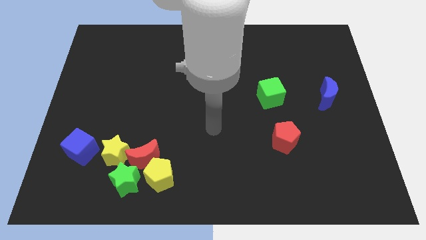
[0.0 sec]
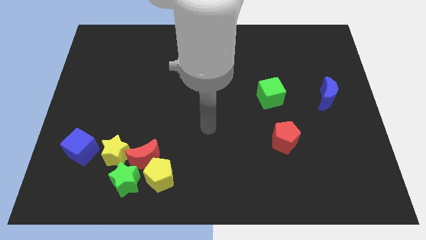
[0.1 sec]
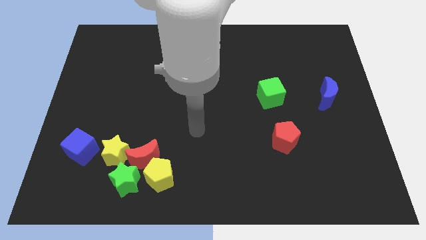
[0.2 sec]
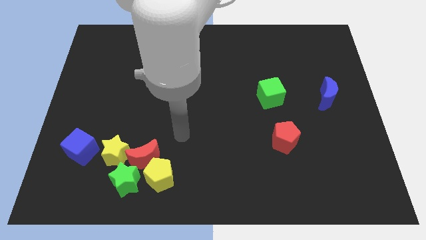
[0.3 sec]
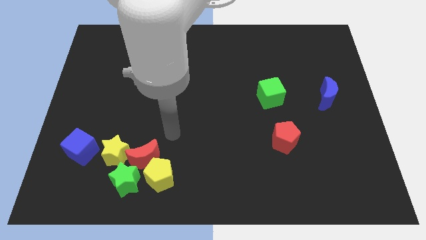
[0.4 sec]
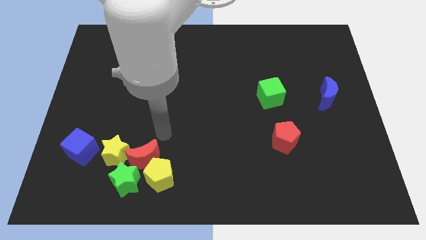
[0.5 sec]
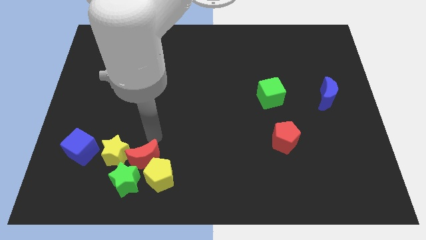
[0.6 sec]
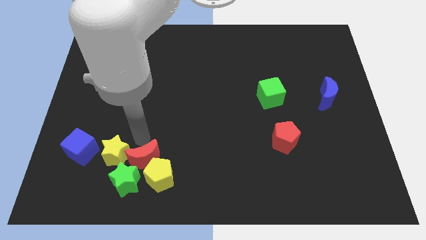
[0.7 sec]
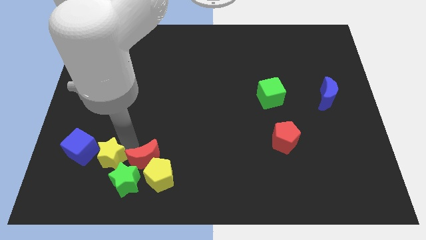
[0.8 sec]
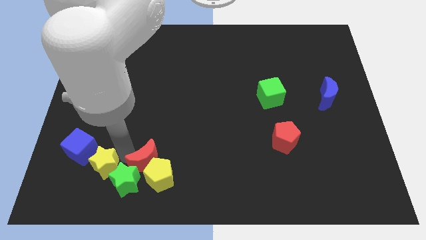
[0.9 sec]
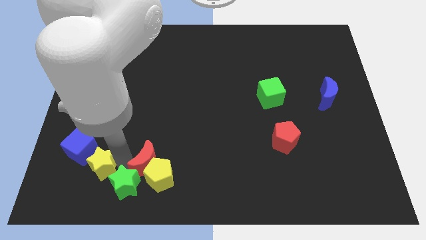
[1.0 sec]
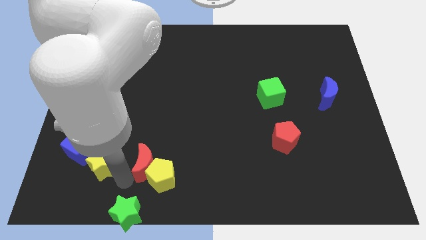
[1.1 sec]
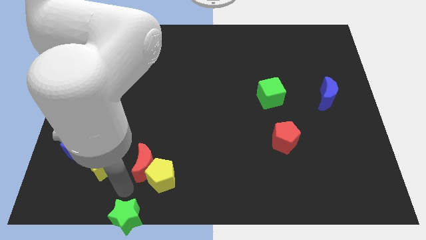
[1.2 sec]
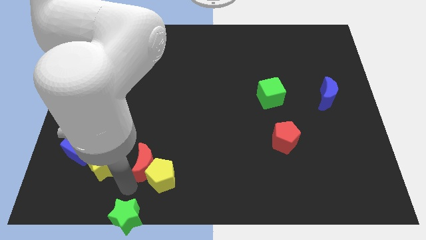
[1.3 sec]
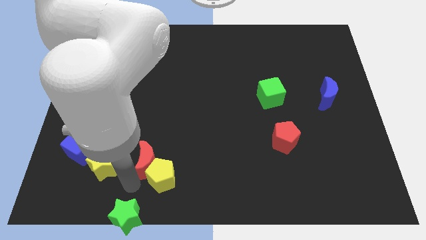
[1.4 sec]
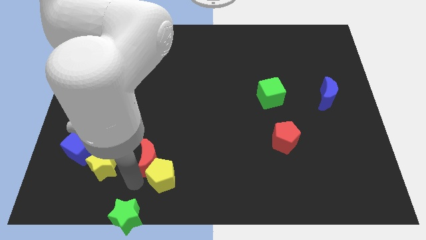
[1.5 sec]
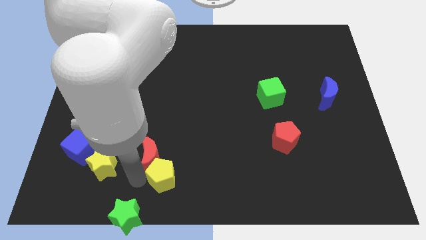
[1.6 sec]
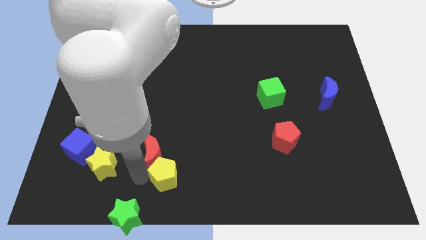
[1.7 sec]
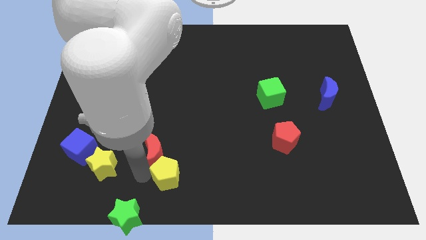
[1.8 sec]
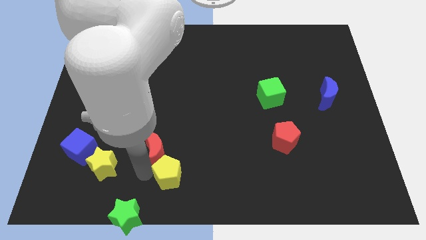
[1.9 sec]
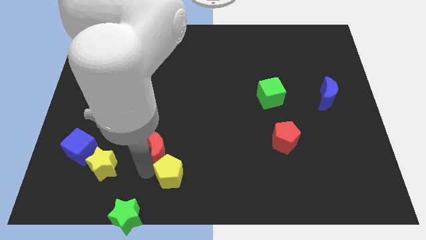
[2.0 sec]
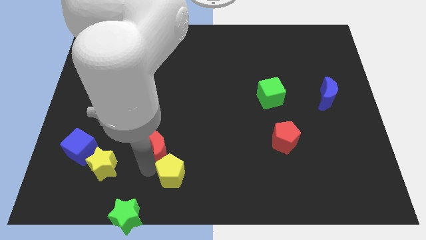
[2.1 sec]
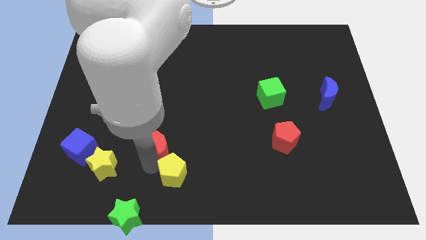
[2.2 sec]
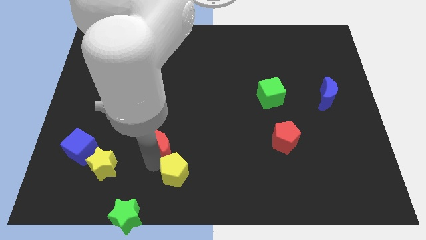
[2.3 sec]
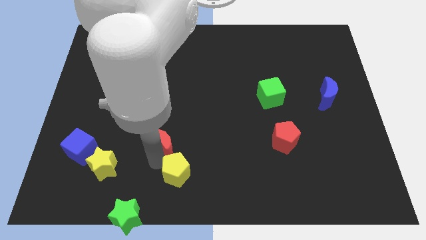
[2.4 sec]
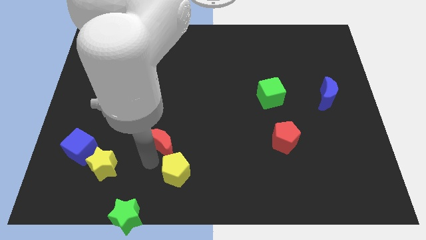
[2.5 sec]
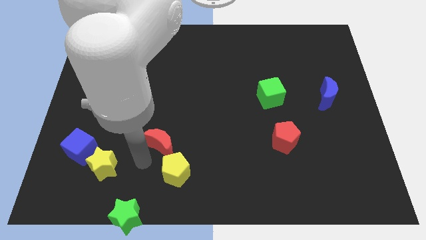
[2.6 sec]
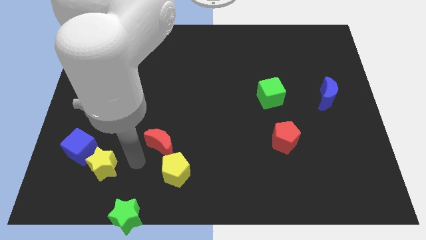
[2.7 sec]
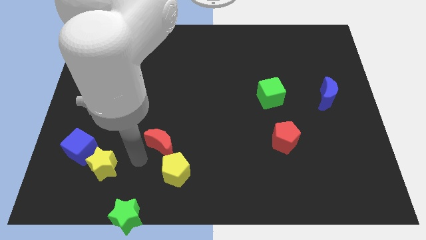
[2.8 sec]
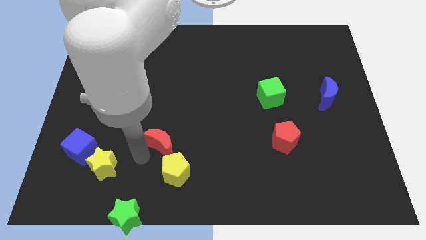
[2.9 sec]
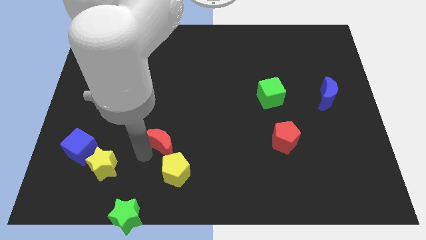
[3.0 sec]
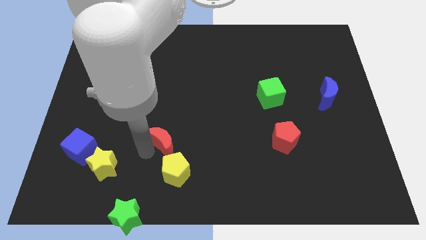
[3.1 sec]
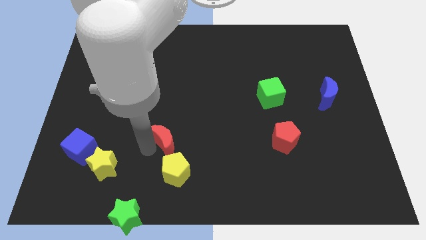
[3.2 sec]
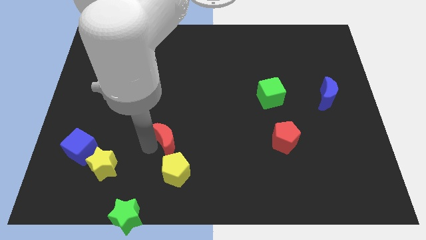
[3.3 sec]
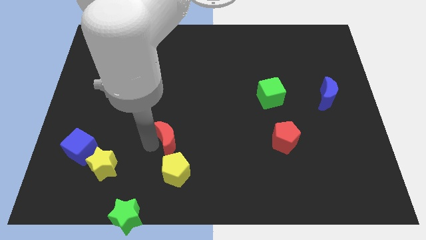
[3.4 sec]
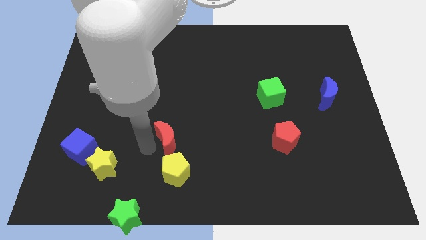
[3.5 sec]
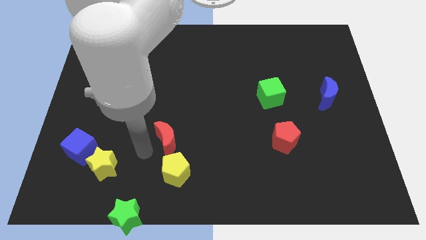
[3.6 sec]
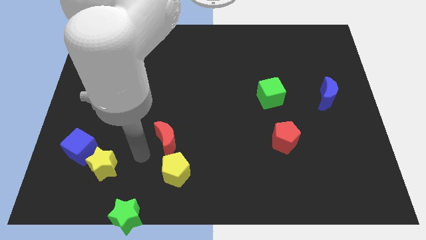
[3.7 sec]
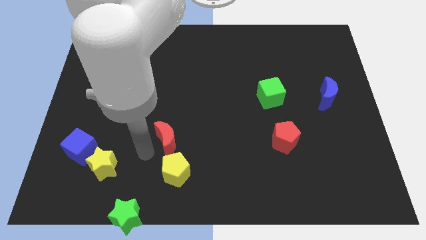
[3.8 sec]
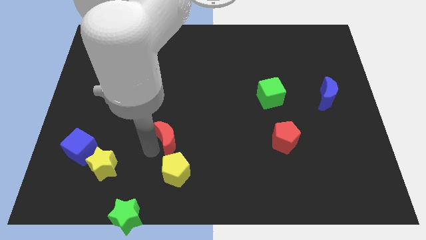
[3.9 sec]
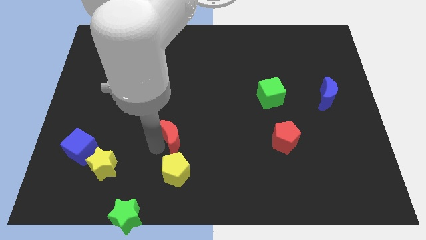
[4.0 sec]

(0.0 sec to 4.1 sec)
slightly move the red moon upwards and right

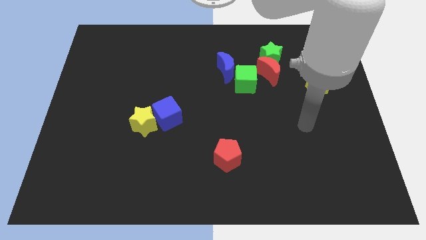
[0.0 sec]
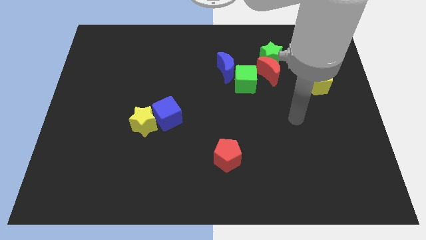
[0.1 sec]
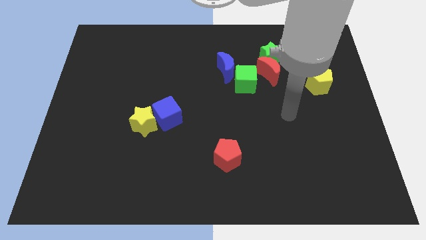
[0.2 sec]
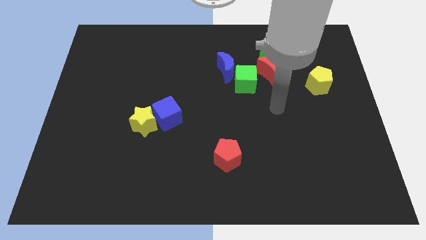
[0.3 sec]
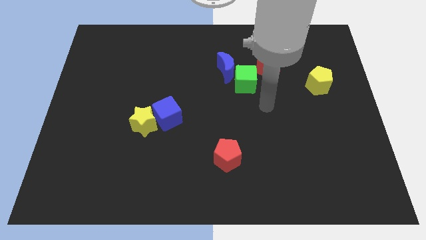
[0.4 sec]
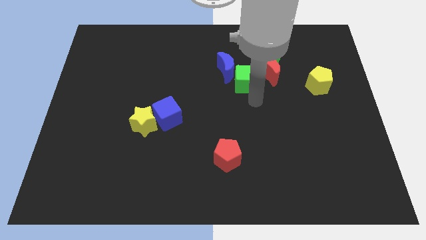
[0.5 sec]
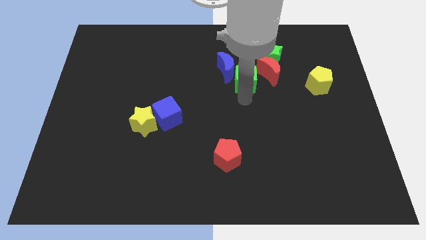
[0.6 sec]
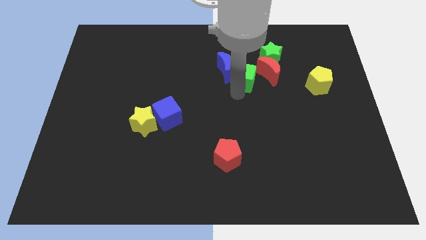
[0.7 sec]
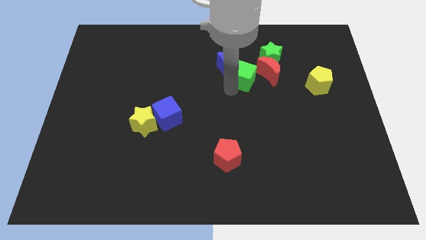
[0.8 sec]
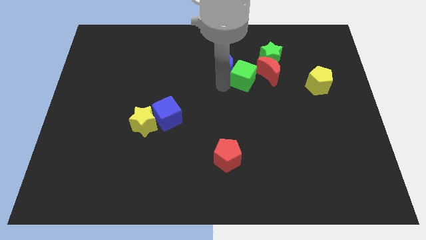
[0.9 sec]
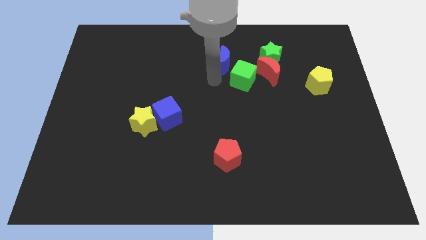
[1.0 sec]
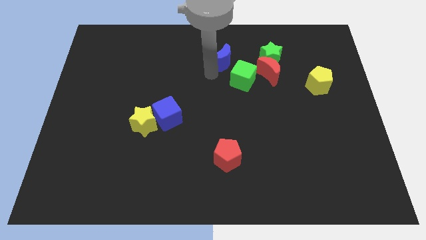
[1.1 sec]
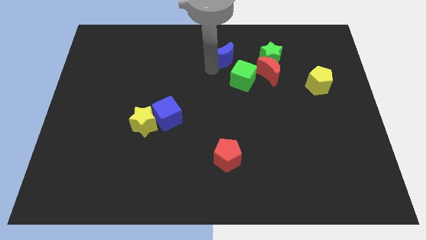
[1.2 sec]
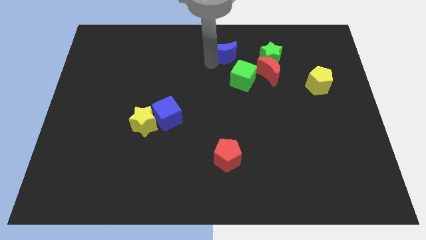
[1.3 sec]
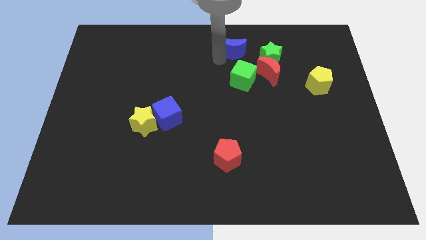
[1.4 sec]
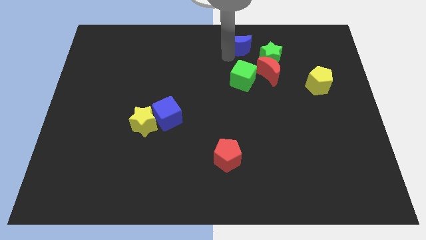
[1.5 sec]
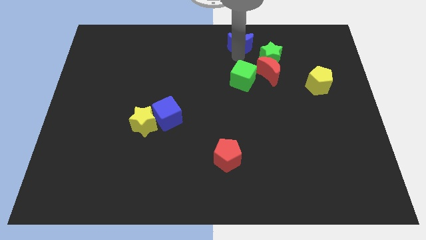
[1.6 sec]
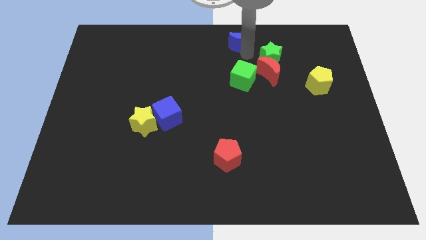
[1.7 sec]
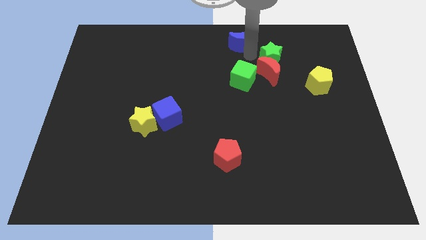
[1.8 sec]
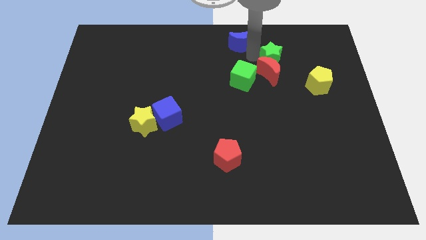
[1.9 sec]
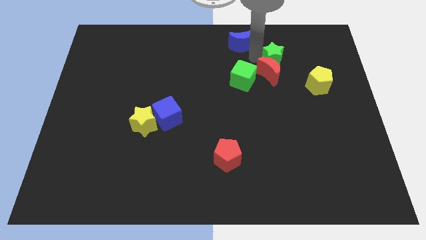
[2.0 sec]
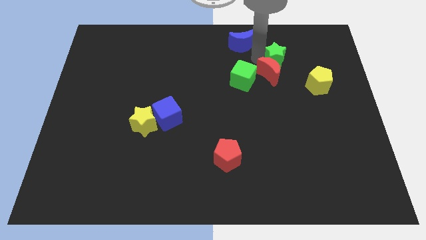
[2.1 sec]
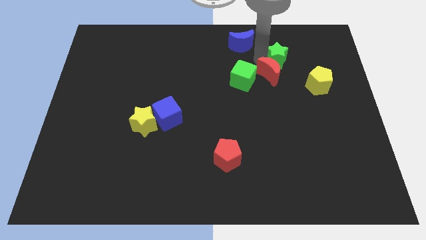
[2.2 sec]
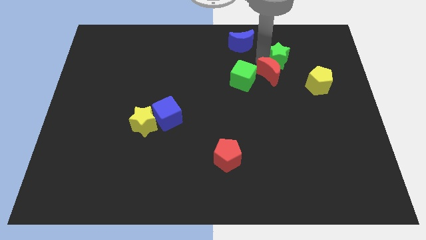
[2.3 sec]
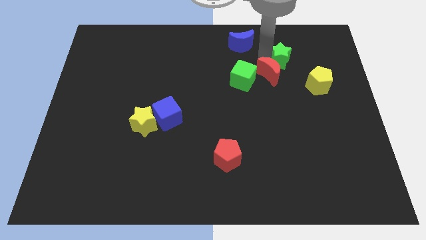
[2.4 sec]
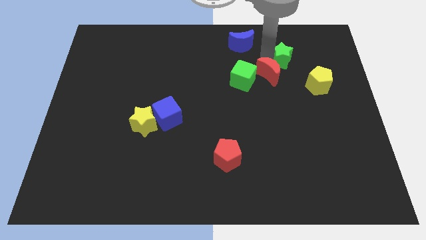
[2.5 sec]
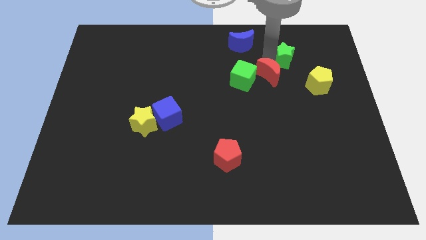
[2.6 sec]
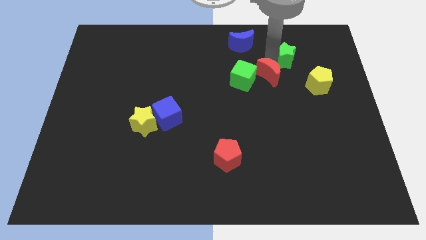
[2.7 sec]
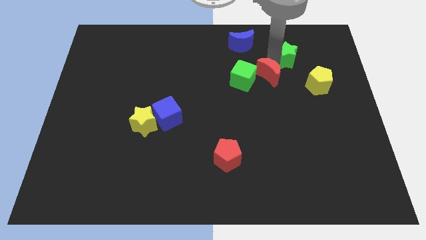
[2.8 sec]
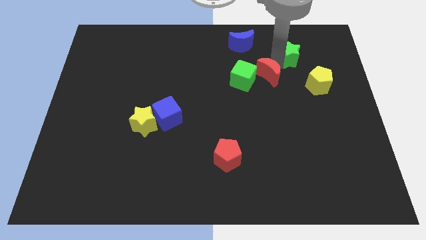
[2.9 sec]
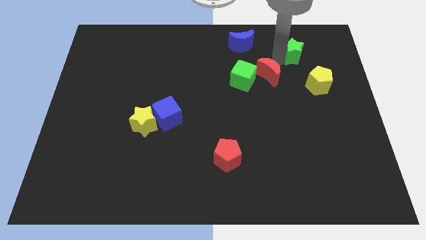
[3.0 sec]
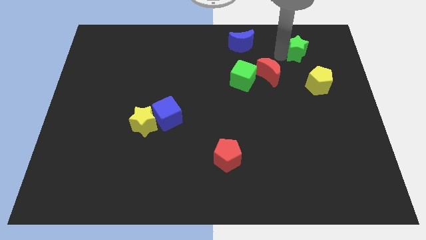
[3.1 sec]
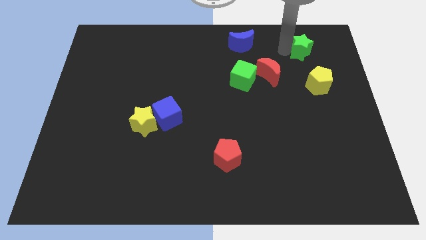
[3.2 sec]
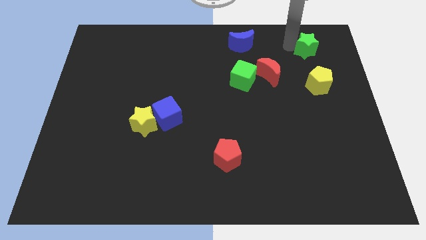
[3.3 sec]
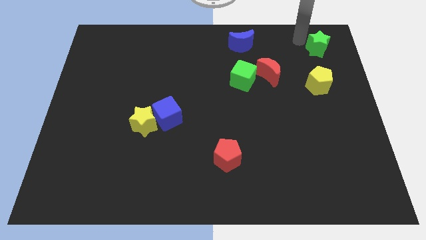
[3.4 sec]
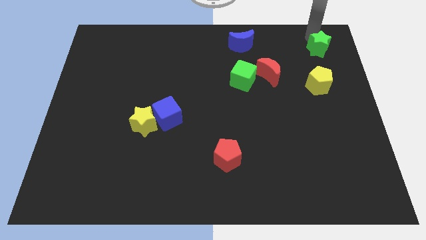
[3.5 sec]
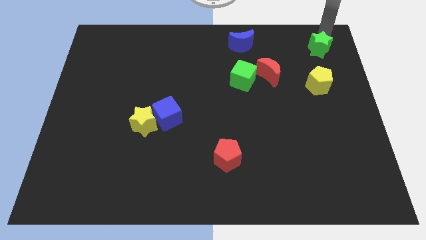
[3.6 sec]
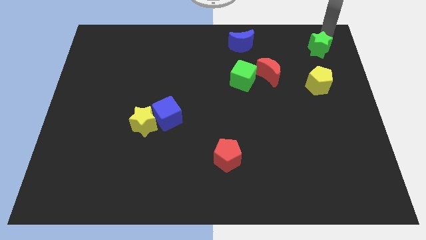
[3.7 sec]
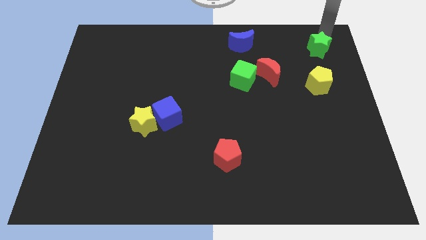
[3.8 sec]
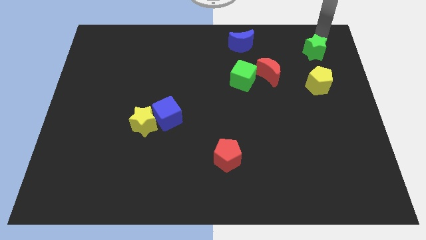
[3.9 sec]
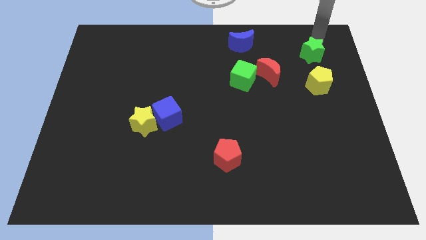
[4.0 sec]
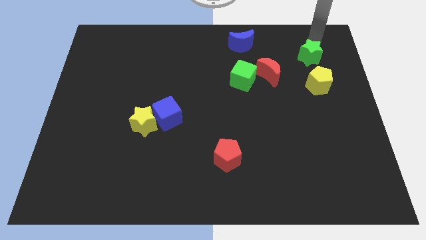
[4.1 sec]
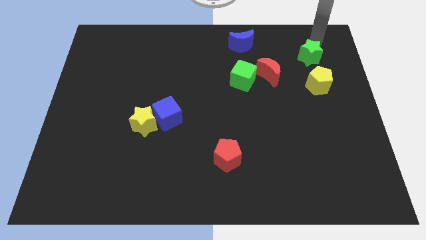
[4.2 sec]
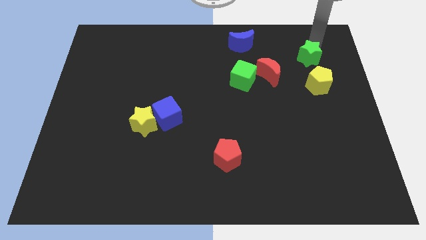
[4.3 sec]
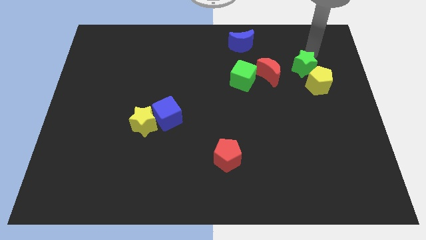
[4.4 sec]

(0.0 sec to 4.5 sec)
slide the green star downwards and right diagonally a little
